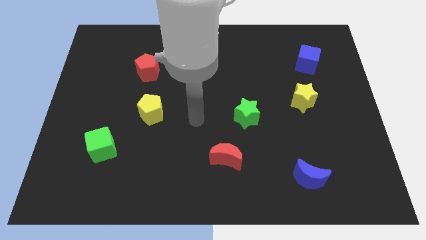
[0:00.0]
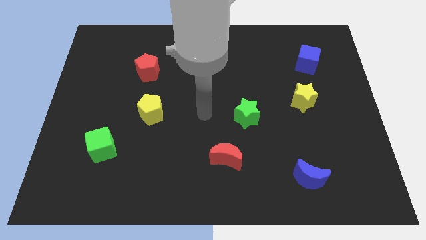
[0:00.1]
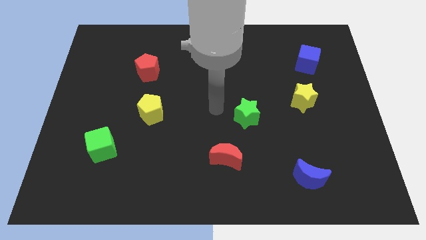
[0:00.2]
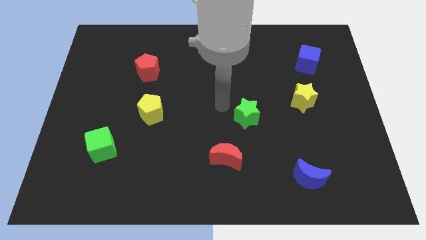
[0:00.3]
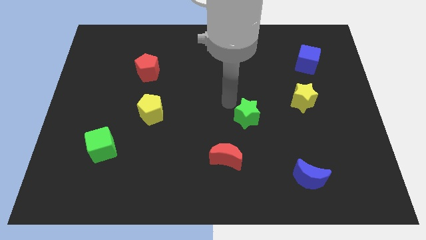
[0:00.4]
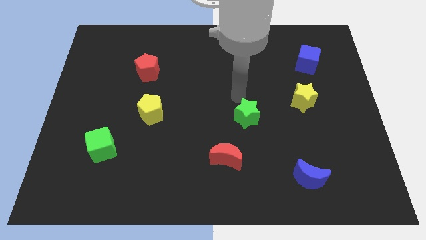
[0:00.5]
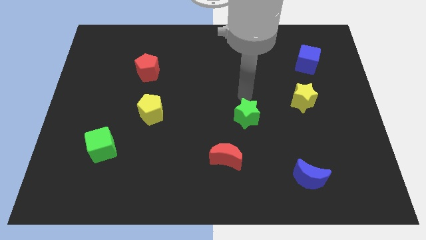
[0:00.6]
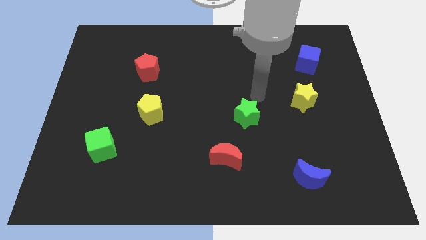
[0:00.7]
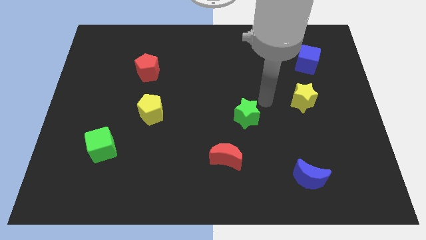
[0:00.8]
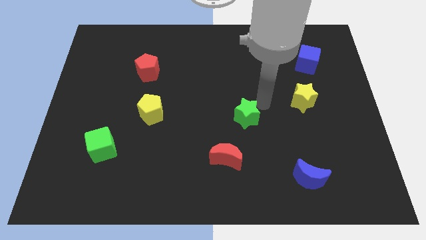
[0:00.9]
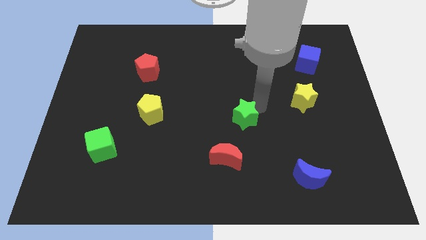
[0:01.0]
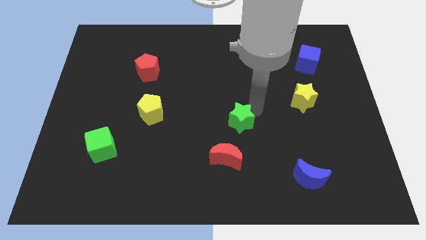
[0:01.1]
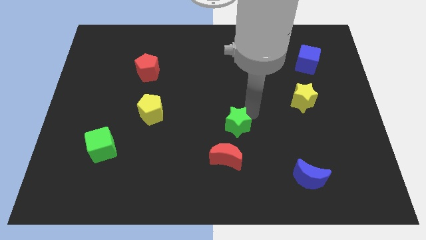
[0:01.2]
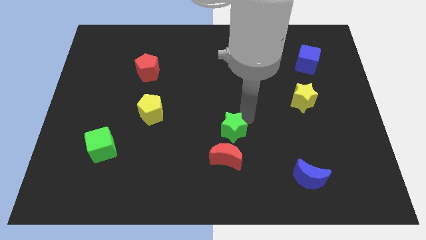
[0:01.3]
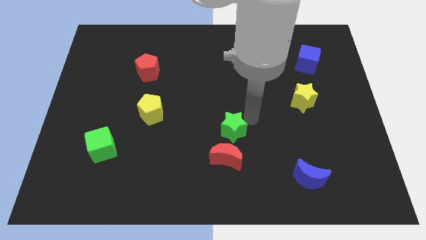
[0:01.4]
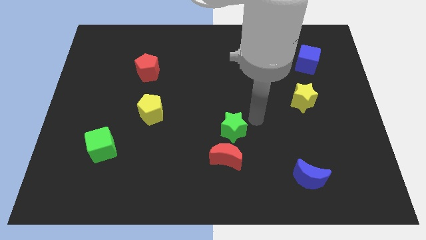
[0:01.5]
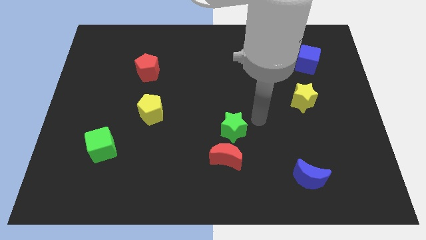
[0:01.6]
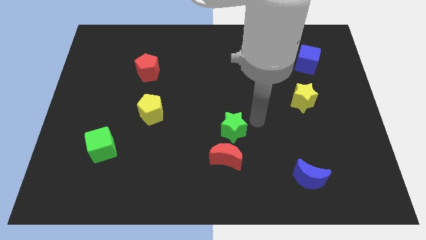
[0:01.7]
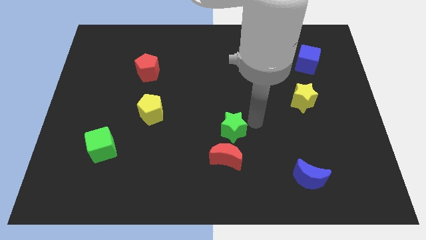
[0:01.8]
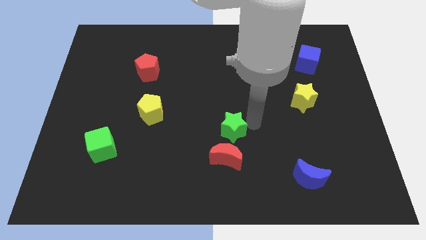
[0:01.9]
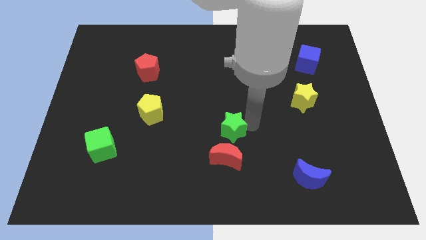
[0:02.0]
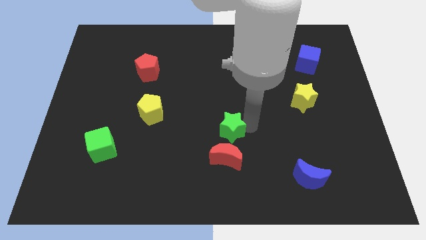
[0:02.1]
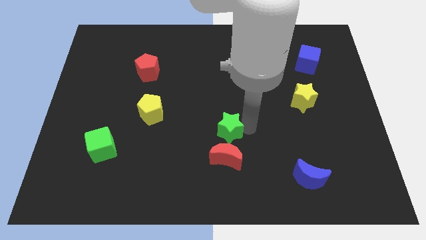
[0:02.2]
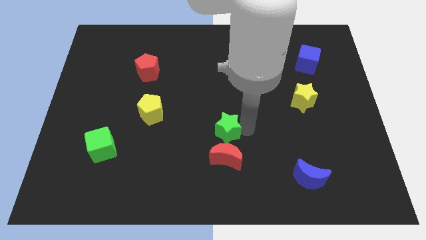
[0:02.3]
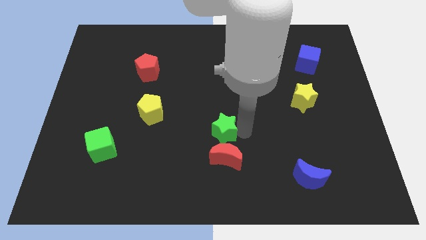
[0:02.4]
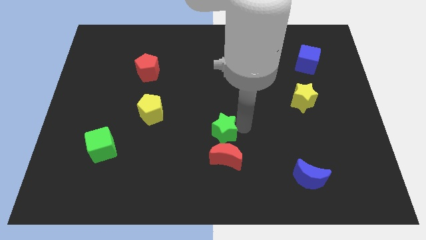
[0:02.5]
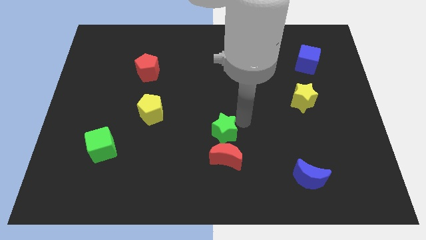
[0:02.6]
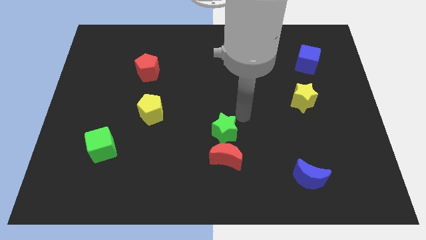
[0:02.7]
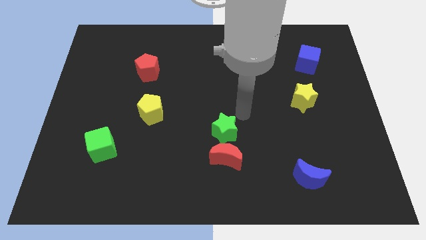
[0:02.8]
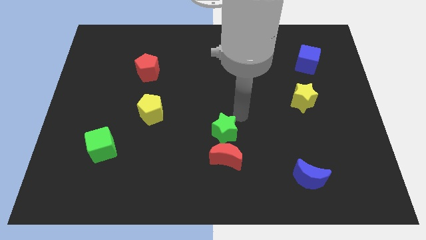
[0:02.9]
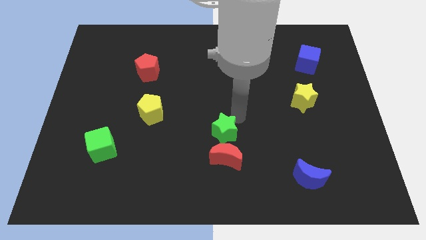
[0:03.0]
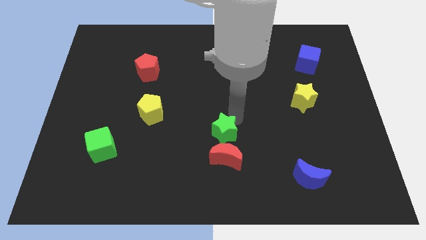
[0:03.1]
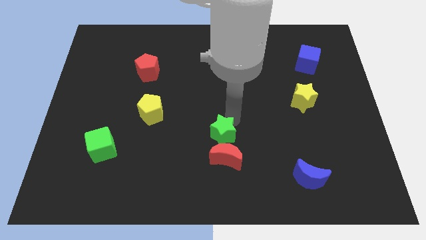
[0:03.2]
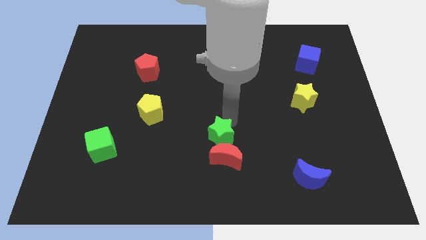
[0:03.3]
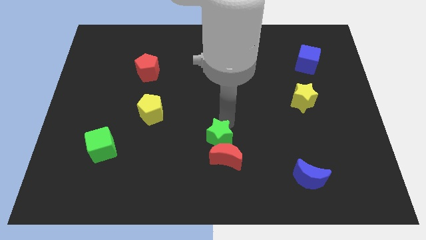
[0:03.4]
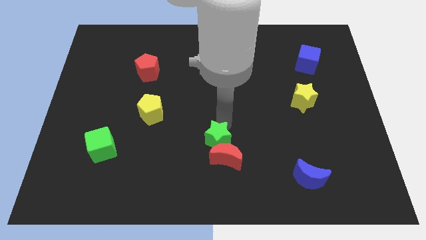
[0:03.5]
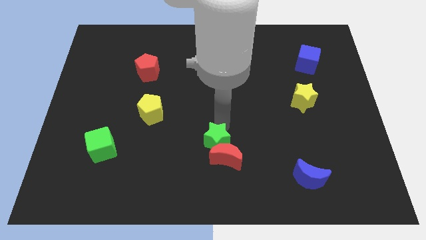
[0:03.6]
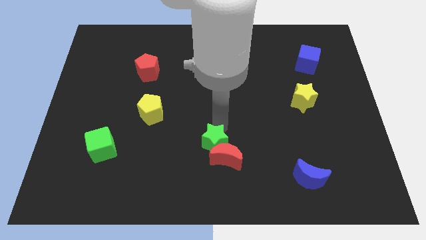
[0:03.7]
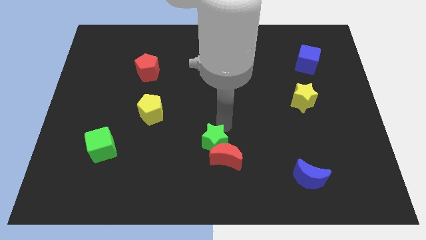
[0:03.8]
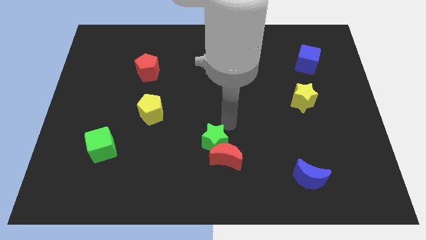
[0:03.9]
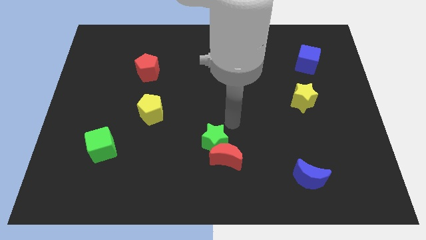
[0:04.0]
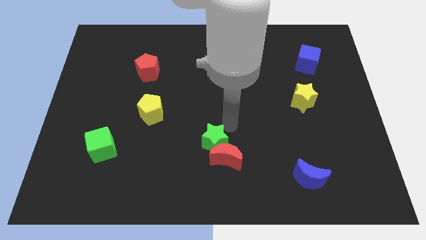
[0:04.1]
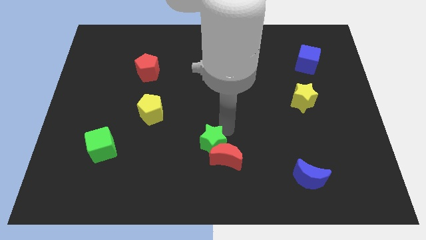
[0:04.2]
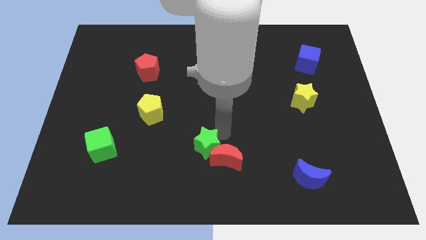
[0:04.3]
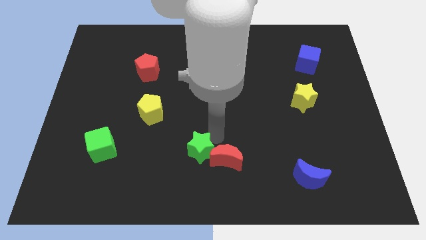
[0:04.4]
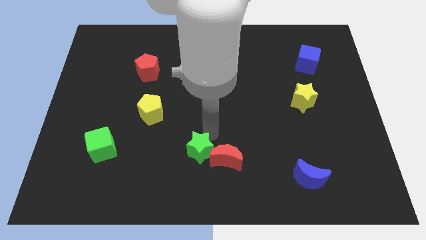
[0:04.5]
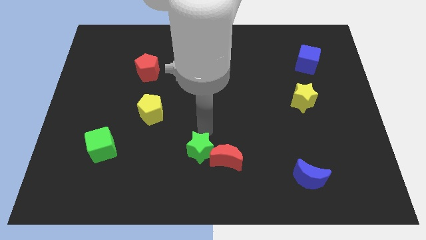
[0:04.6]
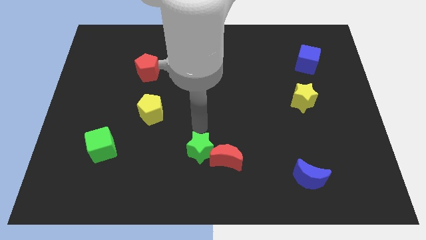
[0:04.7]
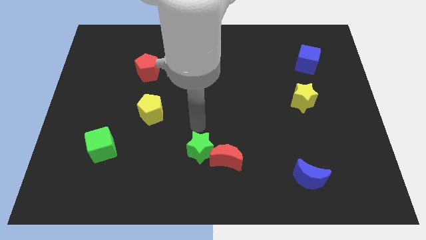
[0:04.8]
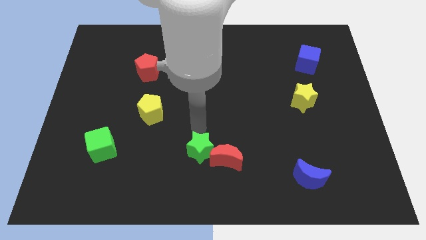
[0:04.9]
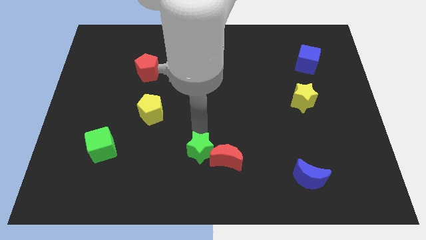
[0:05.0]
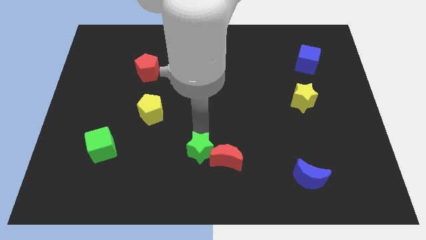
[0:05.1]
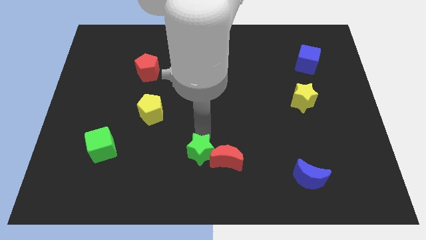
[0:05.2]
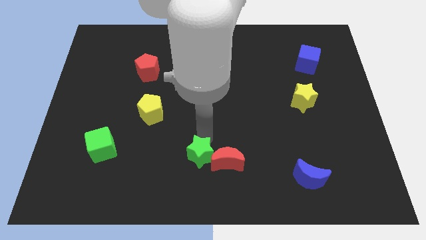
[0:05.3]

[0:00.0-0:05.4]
move the green star to the bottom side

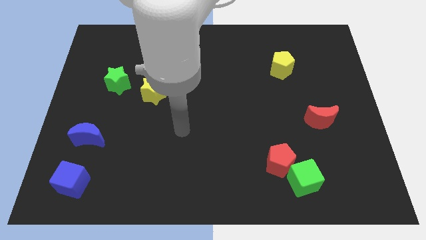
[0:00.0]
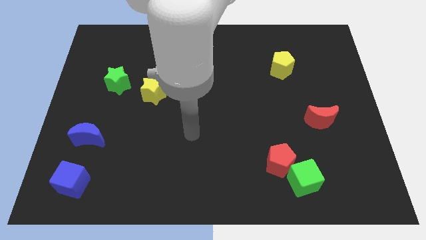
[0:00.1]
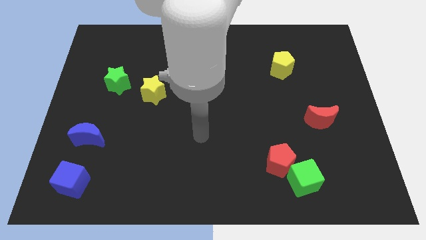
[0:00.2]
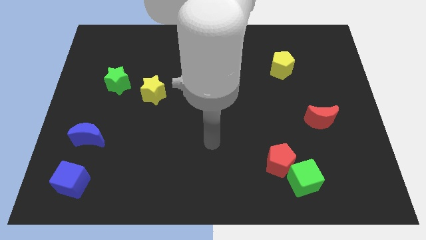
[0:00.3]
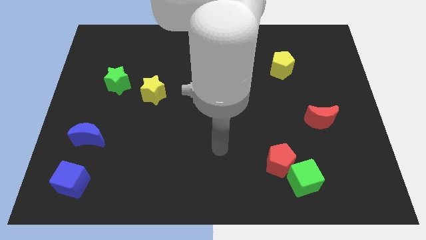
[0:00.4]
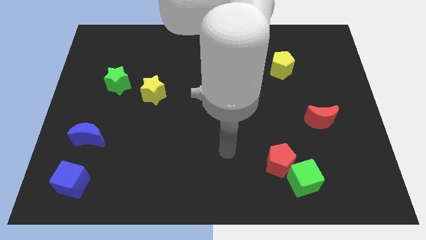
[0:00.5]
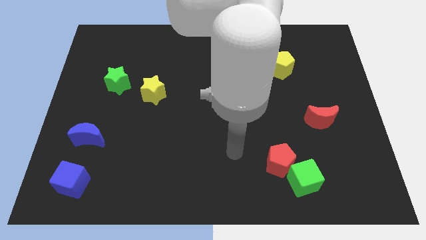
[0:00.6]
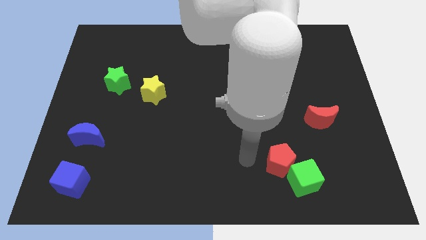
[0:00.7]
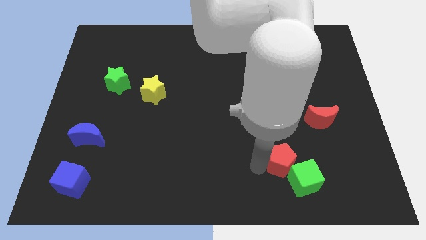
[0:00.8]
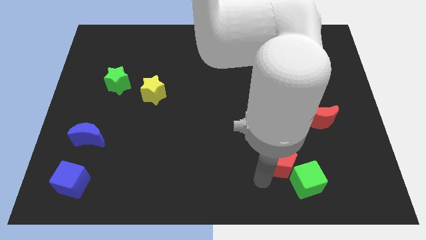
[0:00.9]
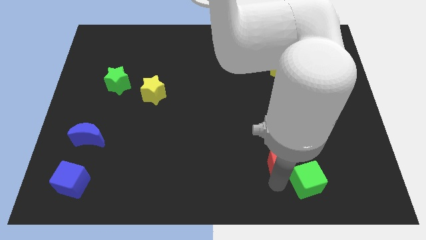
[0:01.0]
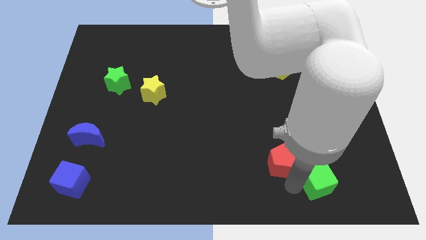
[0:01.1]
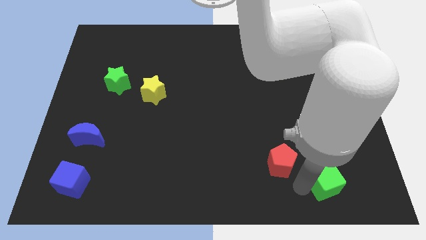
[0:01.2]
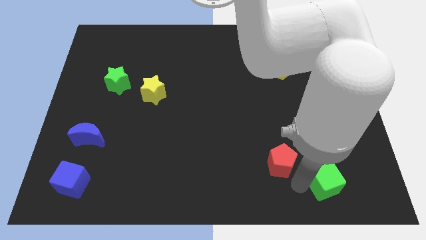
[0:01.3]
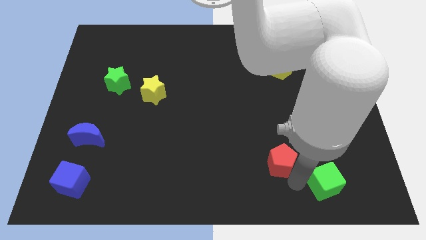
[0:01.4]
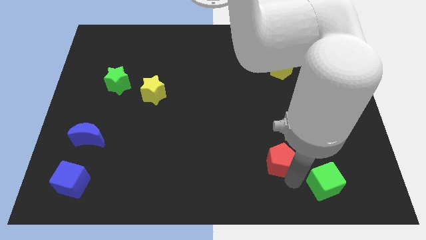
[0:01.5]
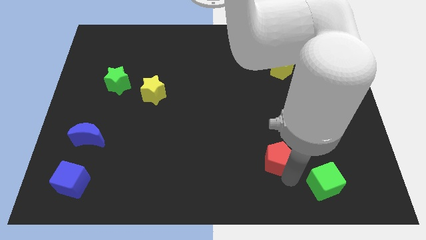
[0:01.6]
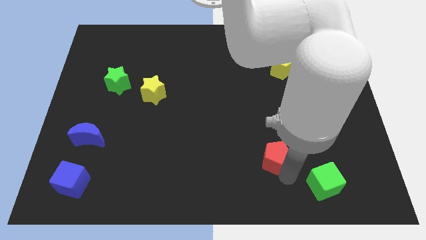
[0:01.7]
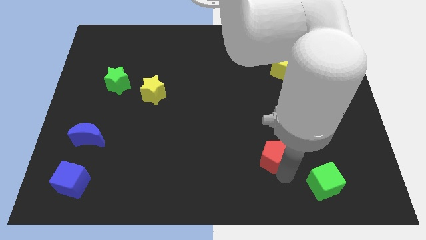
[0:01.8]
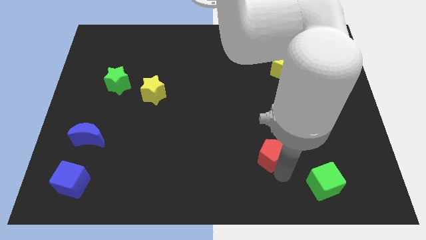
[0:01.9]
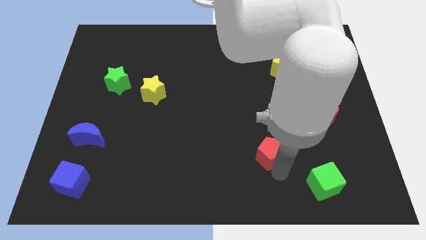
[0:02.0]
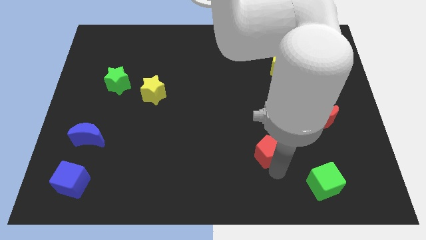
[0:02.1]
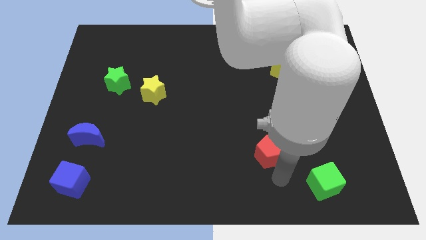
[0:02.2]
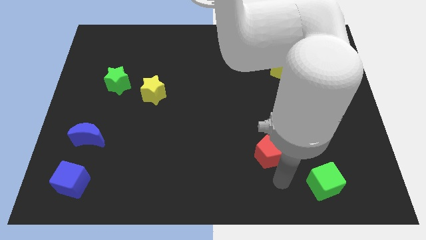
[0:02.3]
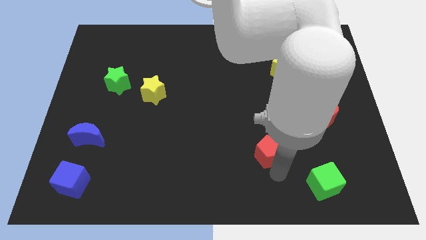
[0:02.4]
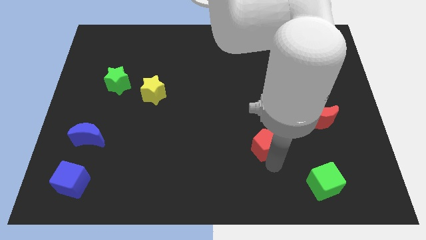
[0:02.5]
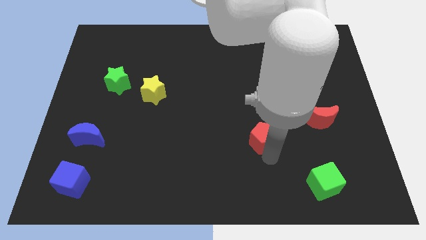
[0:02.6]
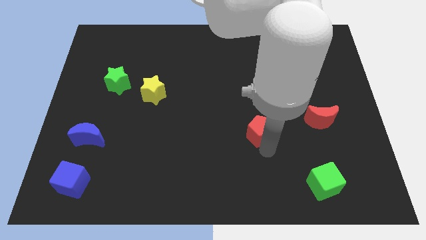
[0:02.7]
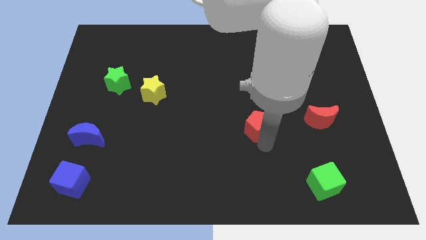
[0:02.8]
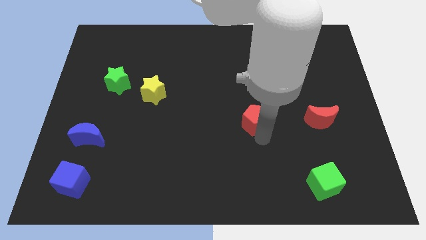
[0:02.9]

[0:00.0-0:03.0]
slide the red pentagon to the center
